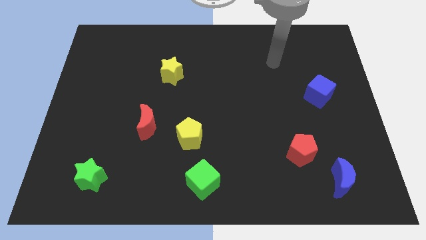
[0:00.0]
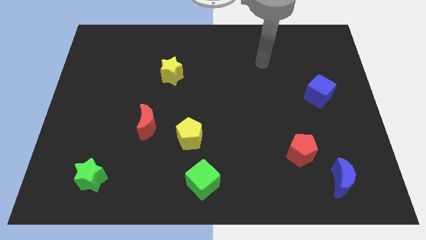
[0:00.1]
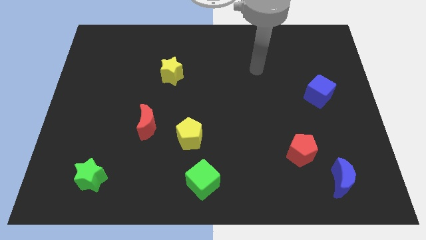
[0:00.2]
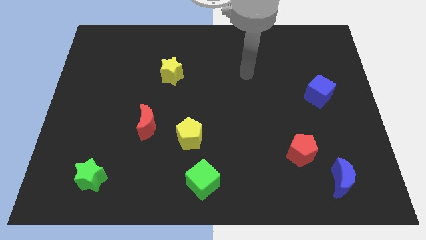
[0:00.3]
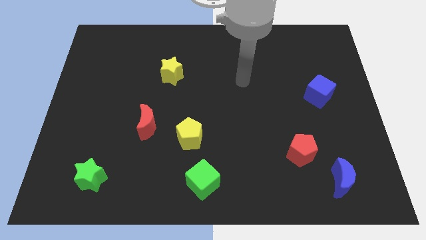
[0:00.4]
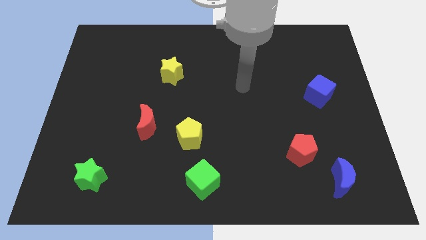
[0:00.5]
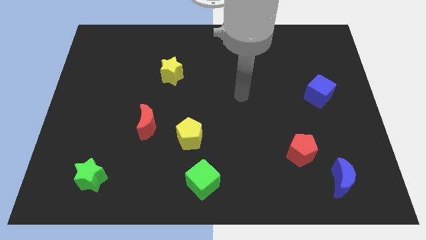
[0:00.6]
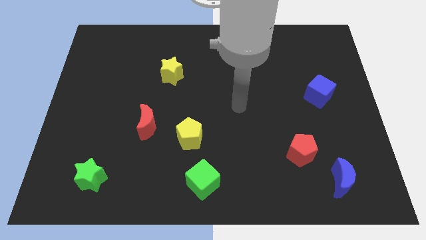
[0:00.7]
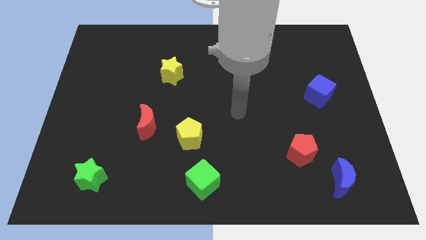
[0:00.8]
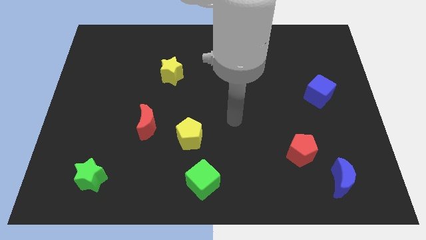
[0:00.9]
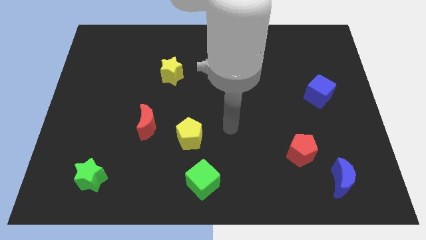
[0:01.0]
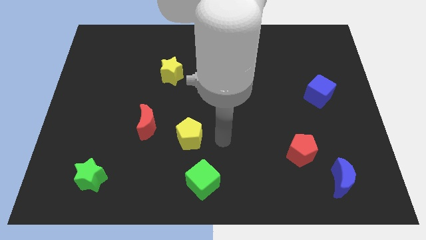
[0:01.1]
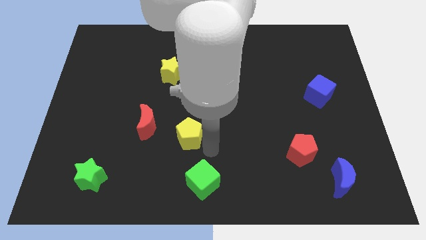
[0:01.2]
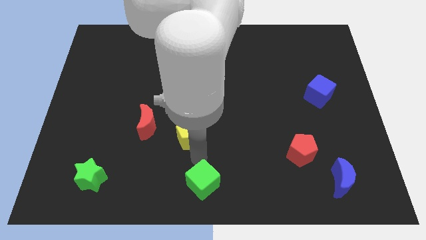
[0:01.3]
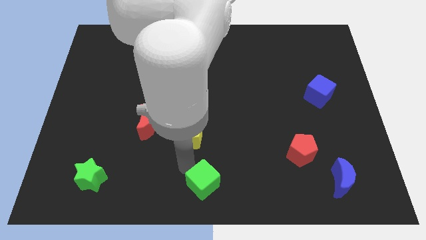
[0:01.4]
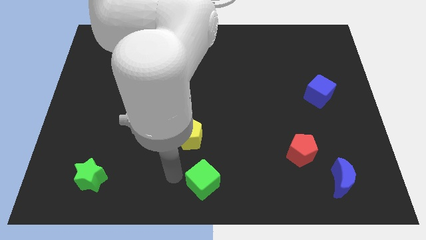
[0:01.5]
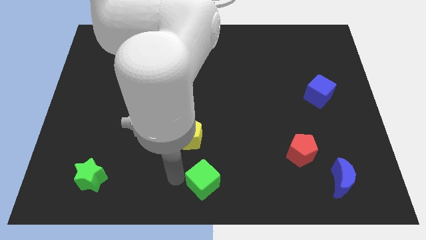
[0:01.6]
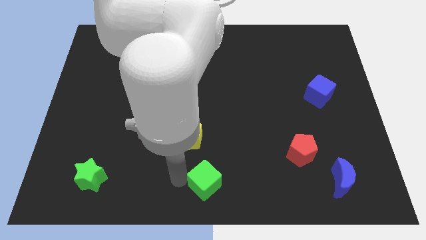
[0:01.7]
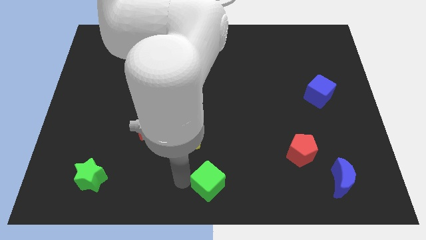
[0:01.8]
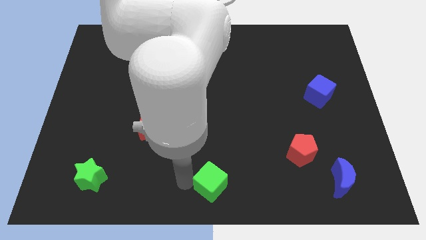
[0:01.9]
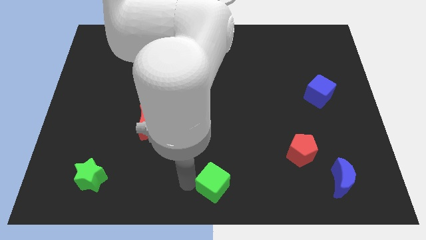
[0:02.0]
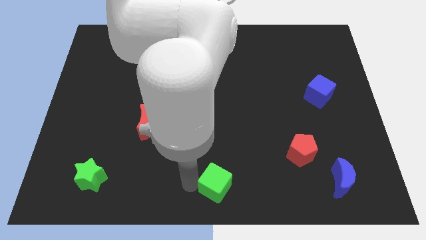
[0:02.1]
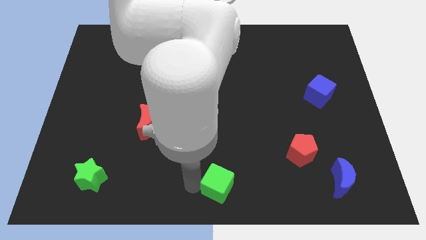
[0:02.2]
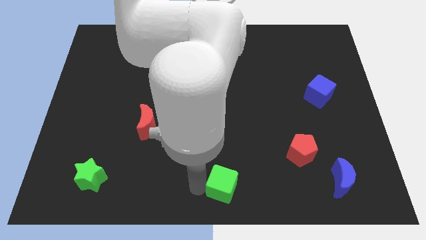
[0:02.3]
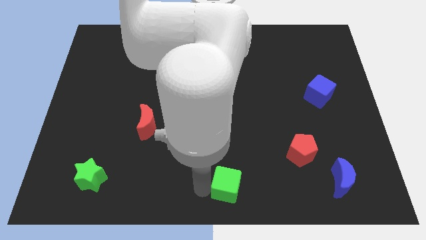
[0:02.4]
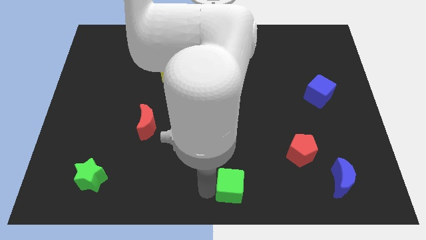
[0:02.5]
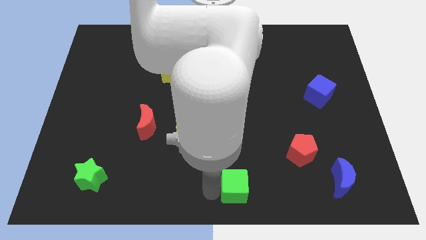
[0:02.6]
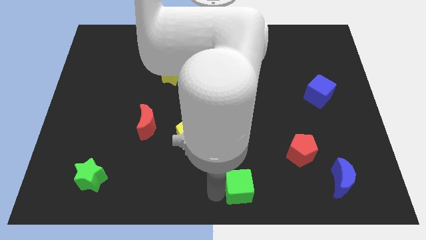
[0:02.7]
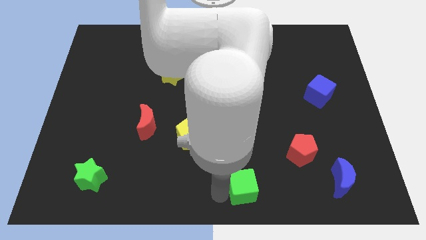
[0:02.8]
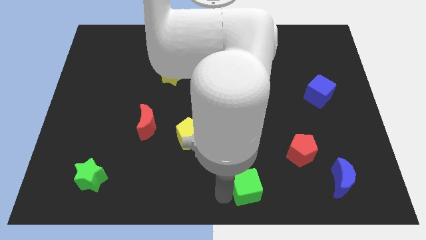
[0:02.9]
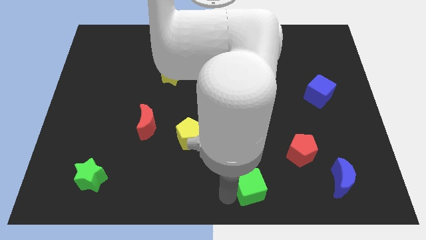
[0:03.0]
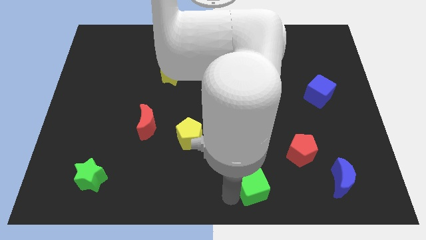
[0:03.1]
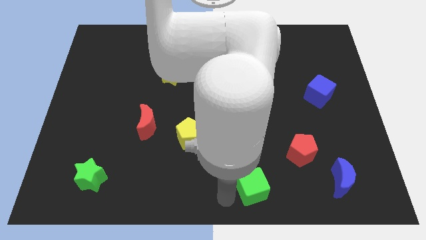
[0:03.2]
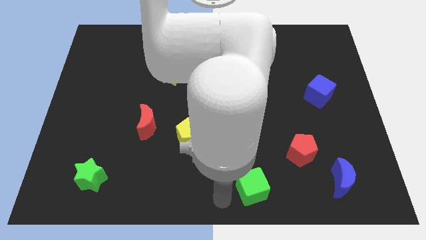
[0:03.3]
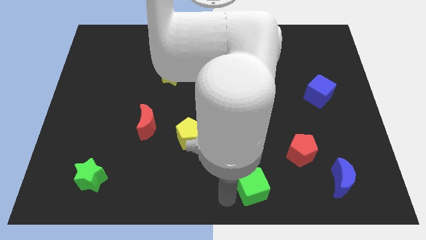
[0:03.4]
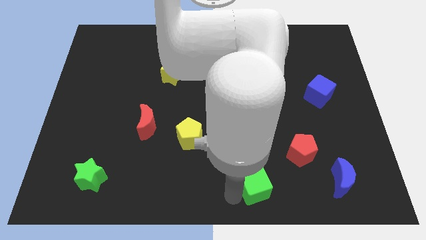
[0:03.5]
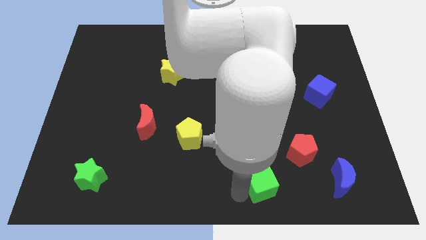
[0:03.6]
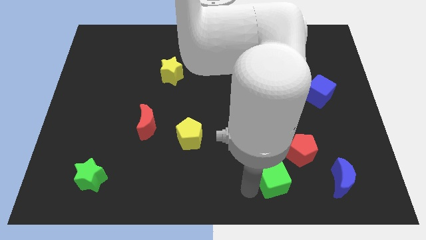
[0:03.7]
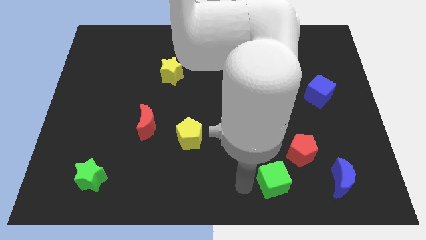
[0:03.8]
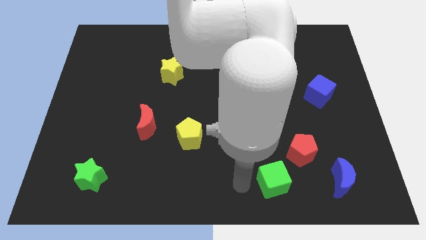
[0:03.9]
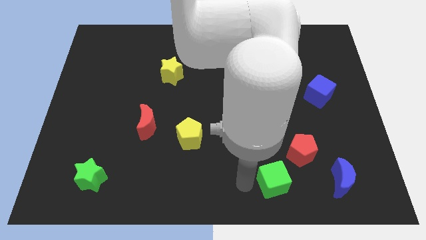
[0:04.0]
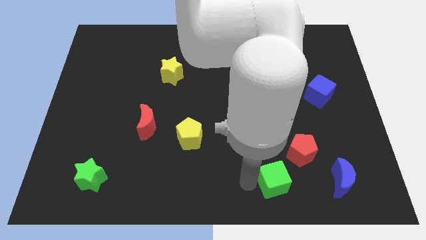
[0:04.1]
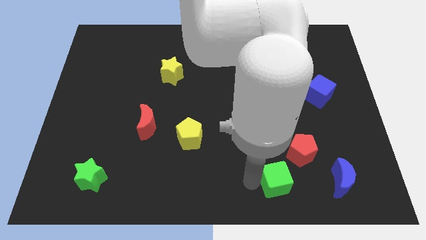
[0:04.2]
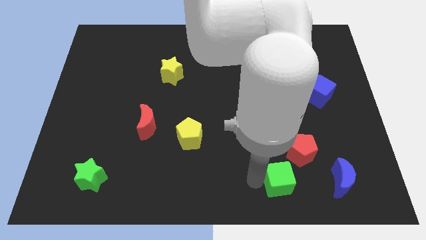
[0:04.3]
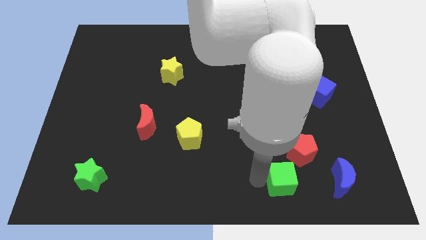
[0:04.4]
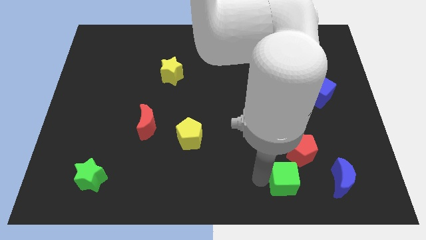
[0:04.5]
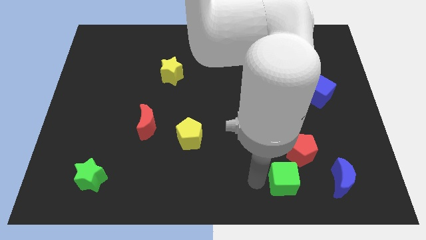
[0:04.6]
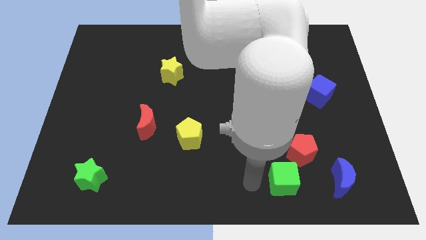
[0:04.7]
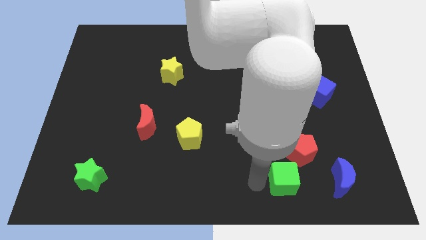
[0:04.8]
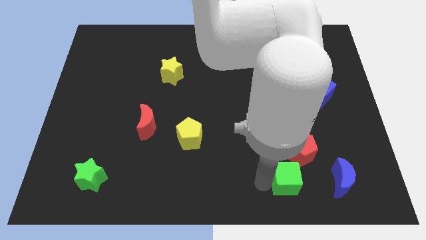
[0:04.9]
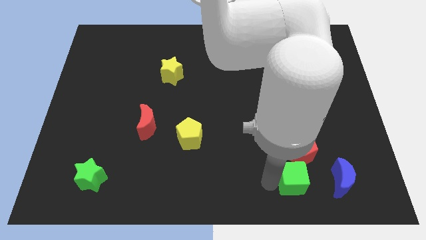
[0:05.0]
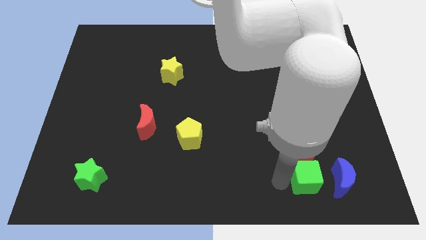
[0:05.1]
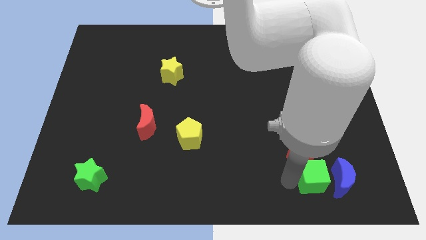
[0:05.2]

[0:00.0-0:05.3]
move the green cube towards the blue moon

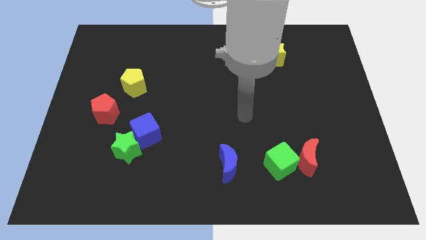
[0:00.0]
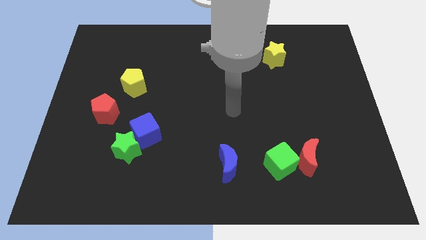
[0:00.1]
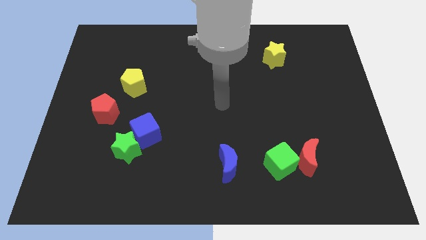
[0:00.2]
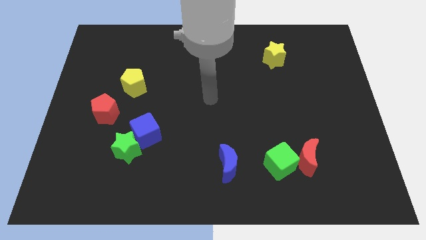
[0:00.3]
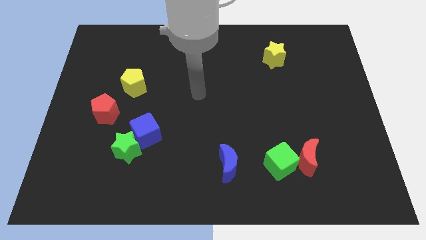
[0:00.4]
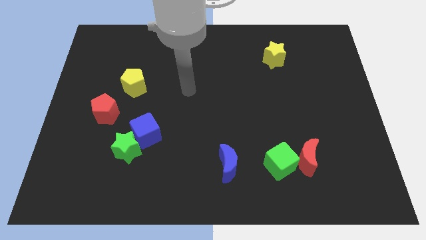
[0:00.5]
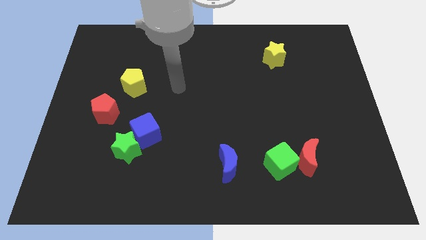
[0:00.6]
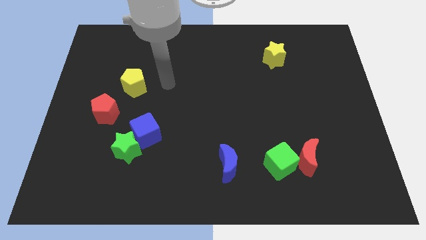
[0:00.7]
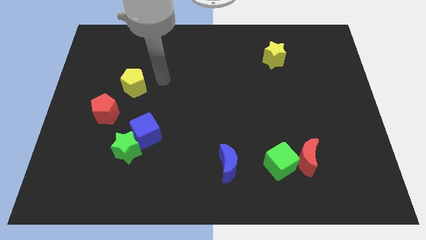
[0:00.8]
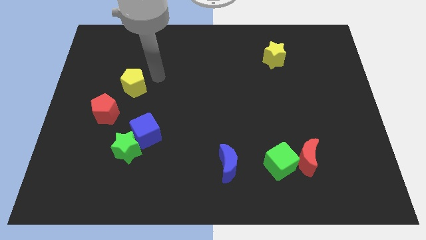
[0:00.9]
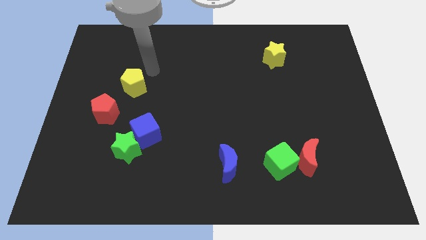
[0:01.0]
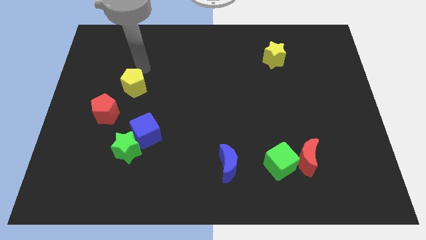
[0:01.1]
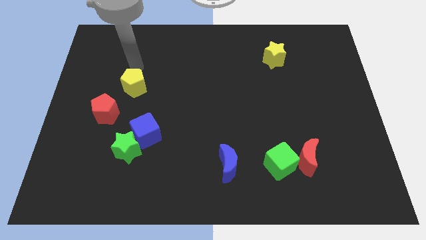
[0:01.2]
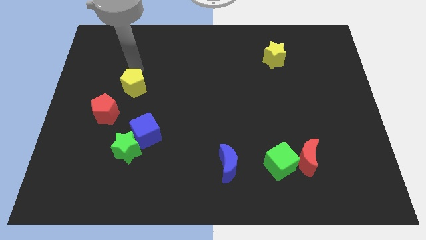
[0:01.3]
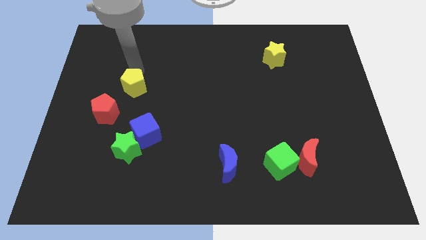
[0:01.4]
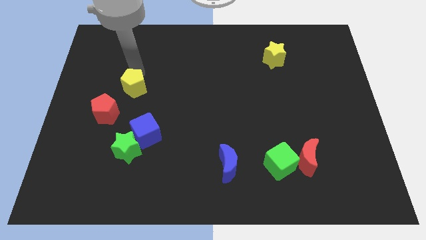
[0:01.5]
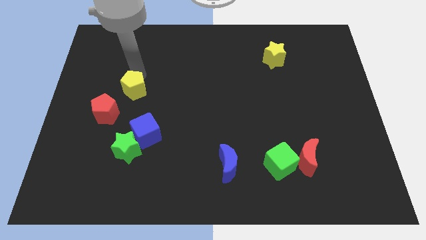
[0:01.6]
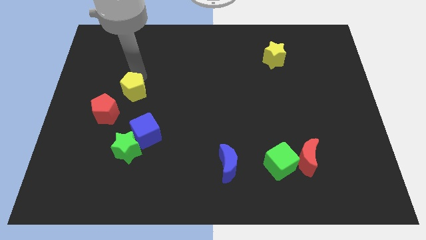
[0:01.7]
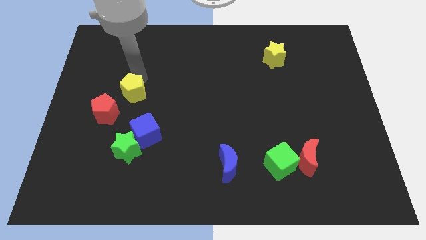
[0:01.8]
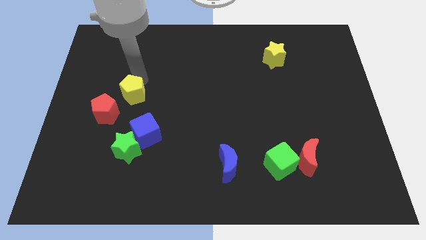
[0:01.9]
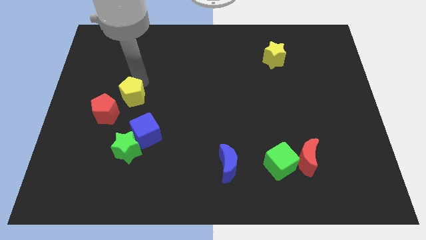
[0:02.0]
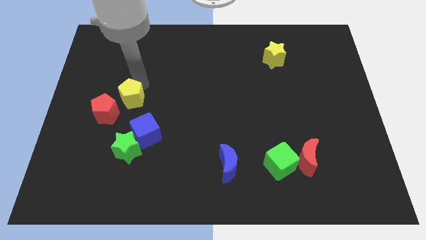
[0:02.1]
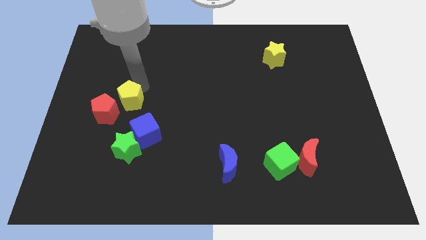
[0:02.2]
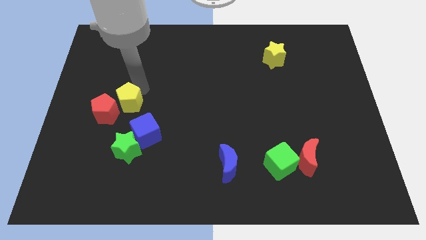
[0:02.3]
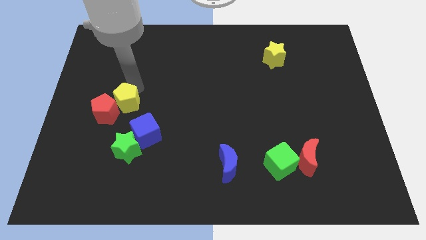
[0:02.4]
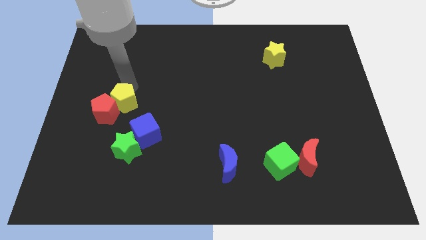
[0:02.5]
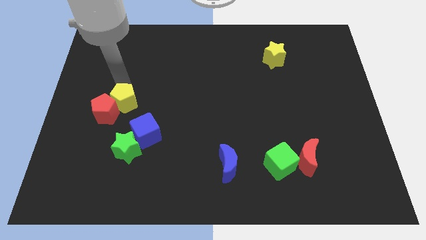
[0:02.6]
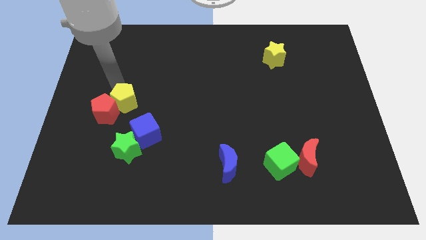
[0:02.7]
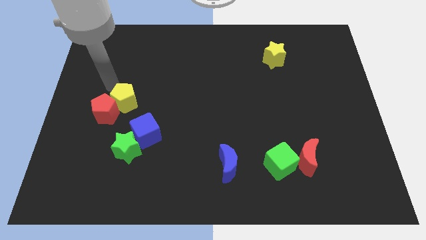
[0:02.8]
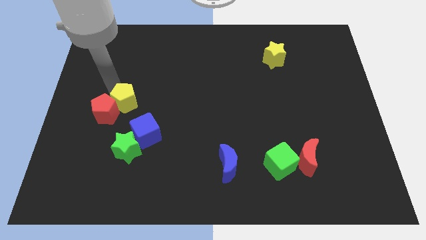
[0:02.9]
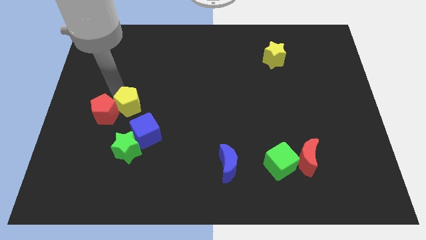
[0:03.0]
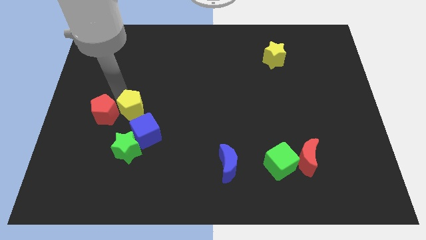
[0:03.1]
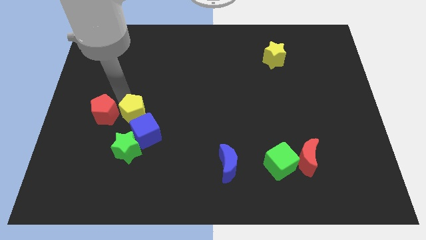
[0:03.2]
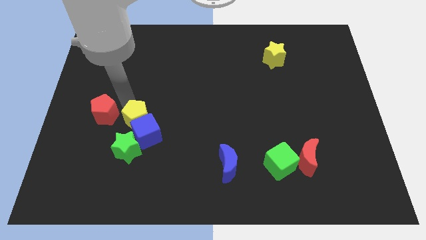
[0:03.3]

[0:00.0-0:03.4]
put the yellow pentagon to the blue cube
